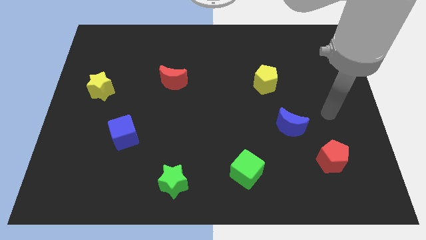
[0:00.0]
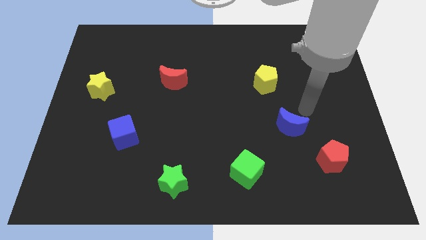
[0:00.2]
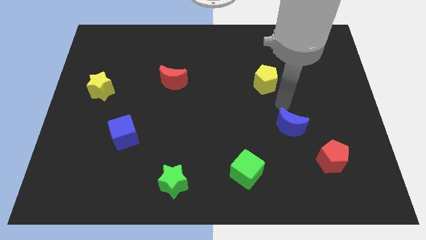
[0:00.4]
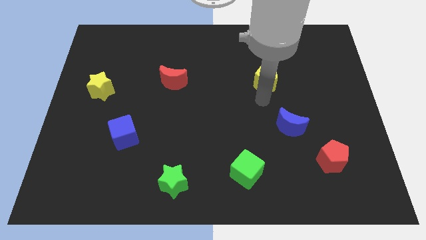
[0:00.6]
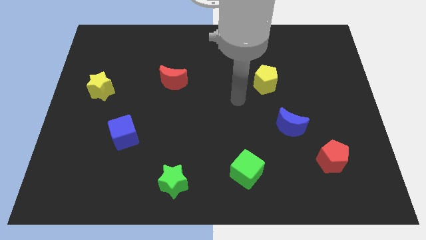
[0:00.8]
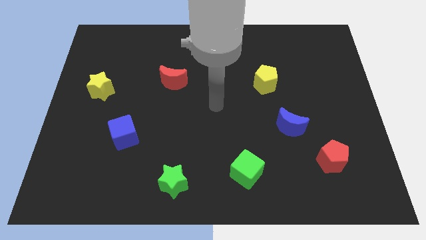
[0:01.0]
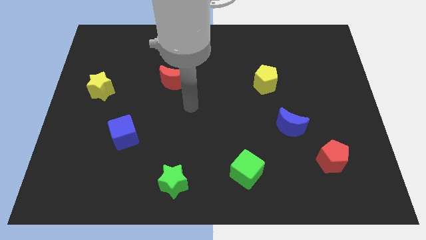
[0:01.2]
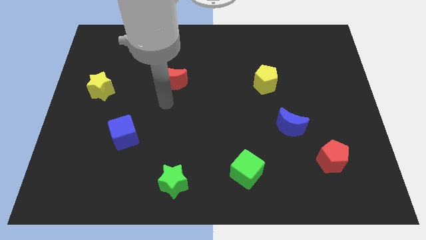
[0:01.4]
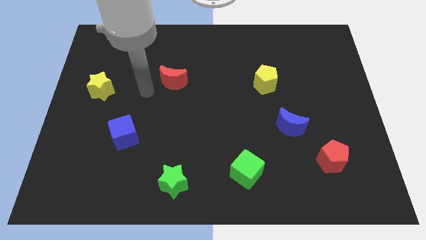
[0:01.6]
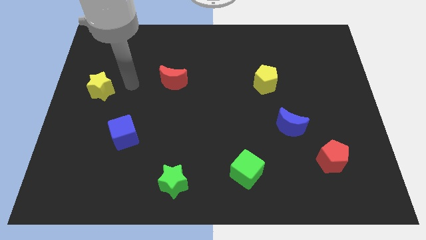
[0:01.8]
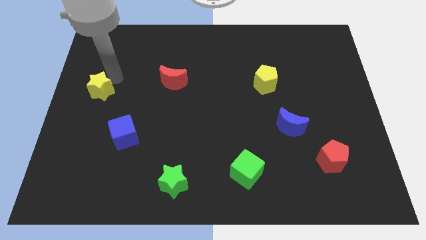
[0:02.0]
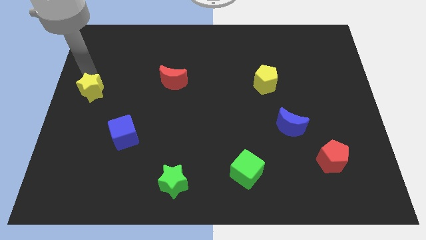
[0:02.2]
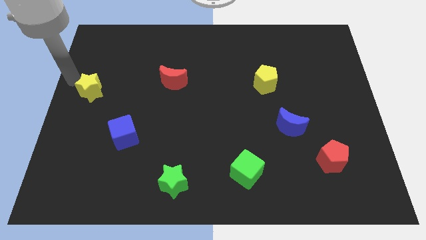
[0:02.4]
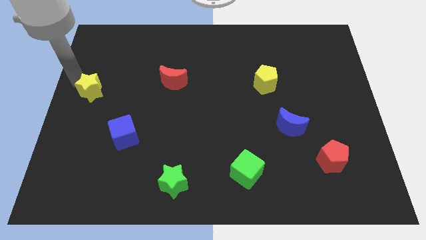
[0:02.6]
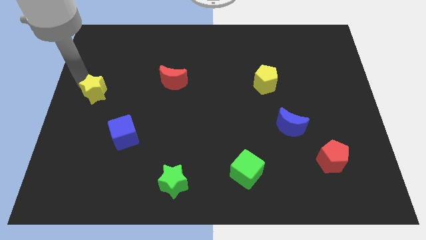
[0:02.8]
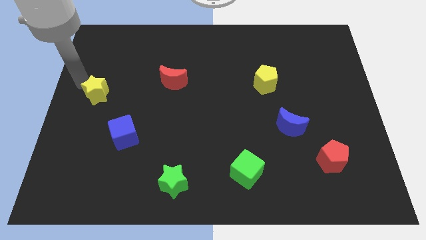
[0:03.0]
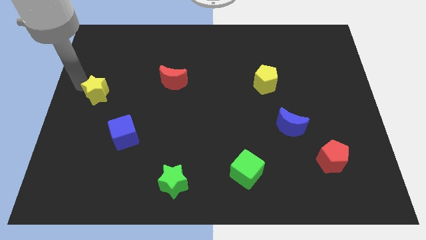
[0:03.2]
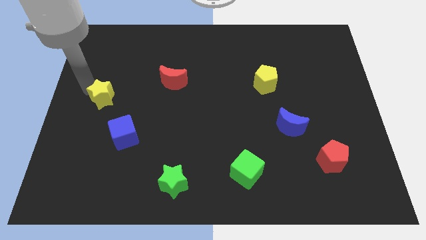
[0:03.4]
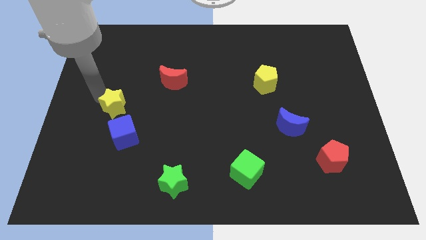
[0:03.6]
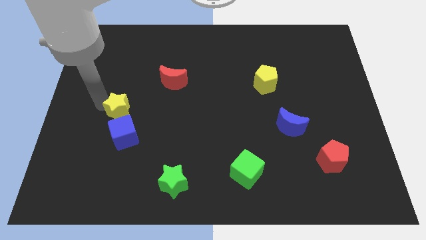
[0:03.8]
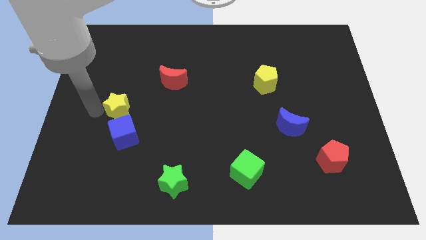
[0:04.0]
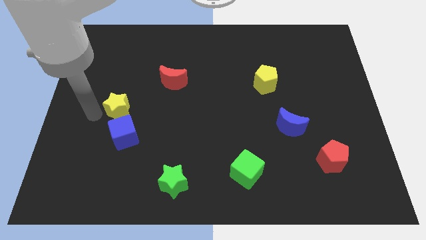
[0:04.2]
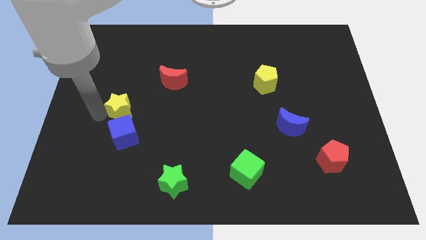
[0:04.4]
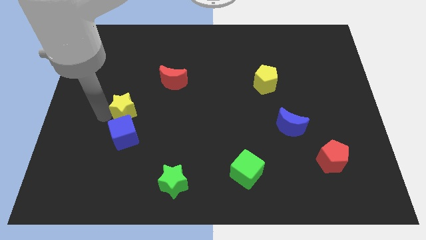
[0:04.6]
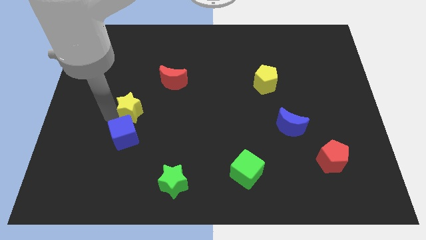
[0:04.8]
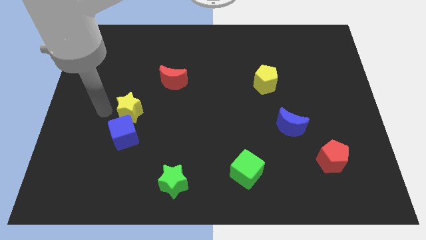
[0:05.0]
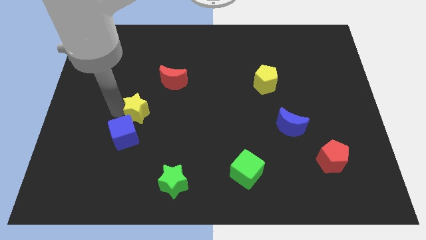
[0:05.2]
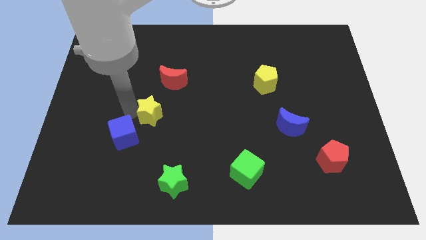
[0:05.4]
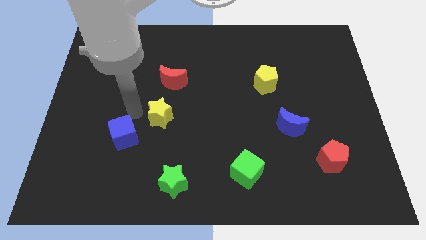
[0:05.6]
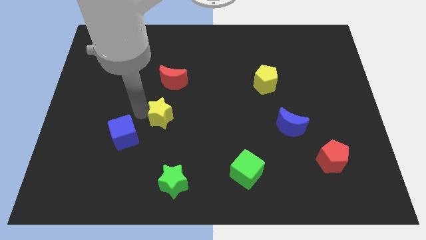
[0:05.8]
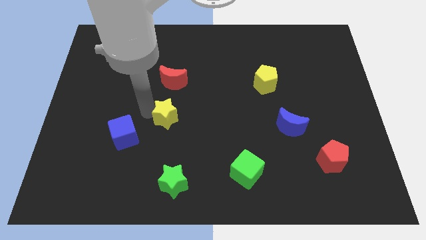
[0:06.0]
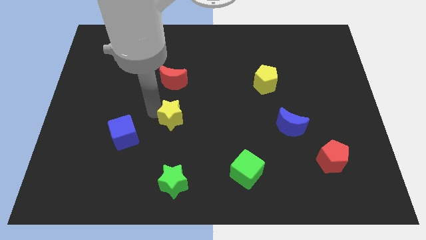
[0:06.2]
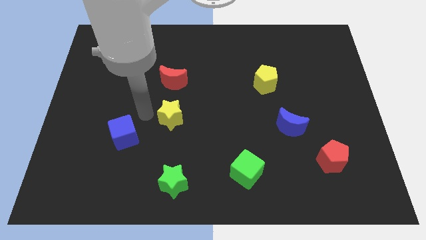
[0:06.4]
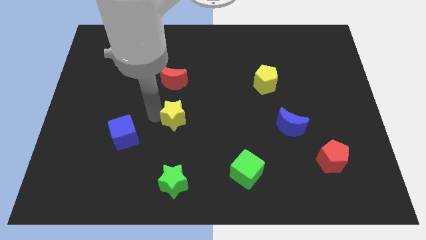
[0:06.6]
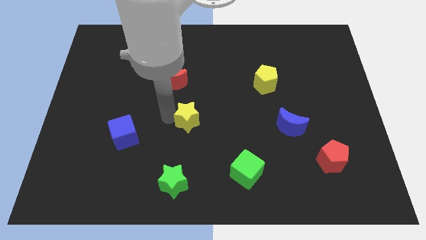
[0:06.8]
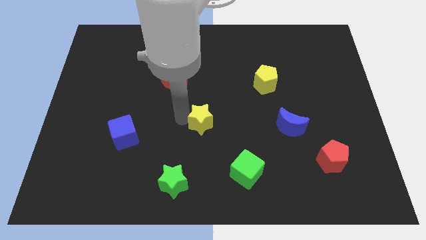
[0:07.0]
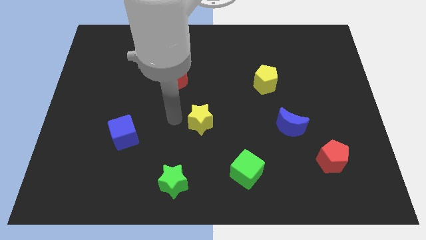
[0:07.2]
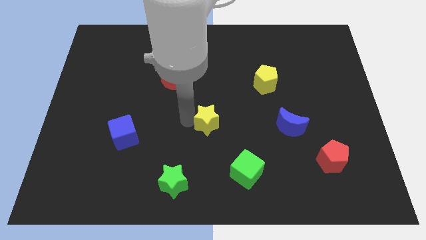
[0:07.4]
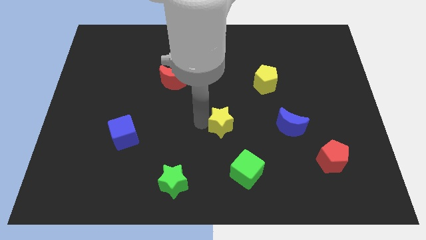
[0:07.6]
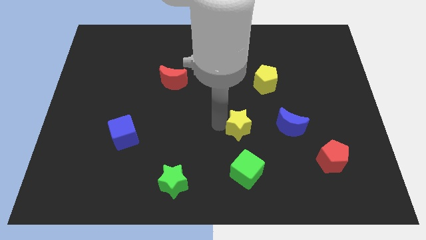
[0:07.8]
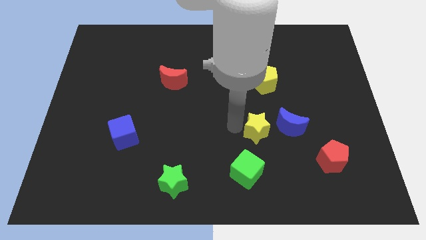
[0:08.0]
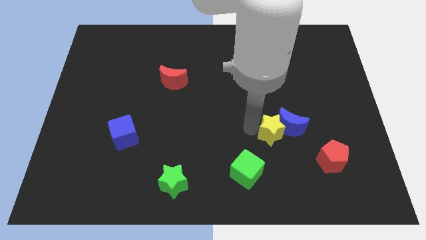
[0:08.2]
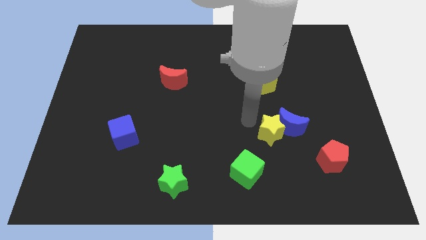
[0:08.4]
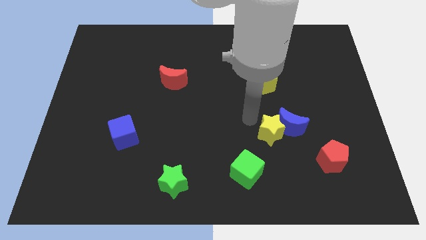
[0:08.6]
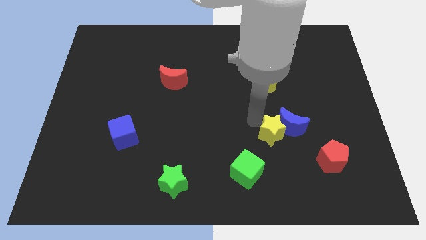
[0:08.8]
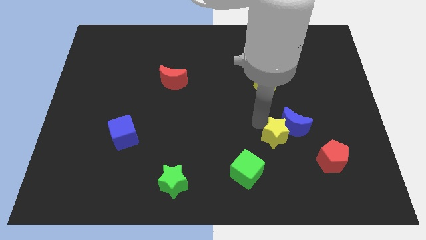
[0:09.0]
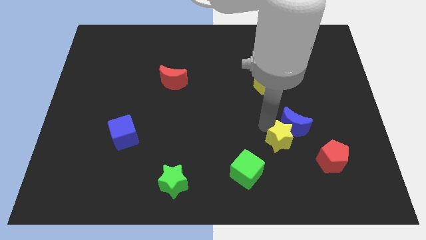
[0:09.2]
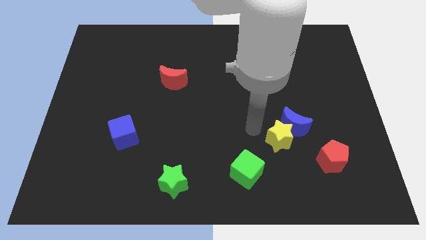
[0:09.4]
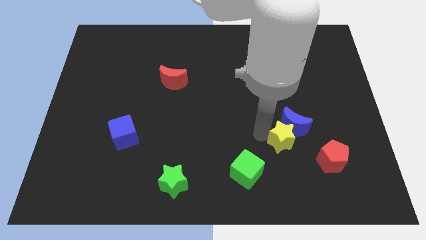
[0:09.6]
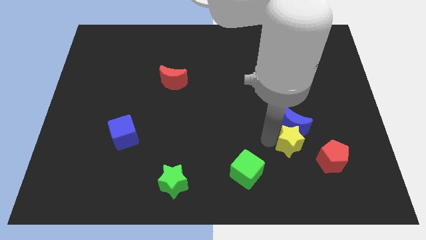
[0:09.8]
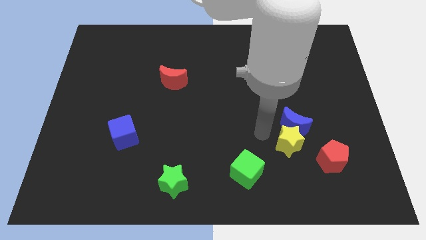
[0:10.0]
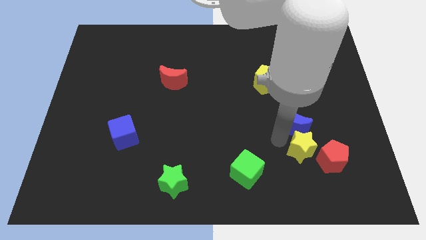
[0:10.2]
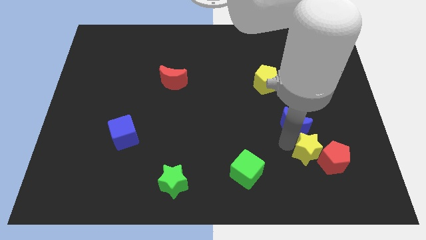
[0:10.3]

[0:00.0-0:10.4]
push the yellow star close to the red pentagon
